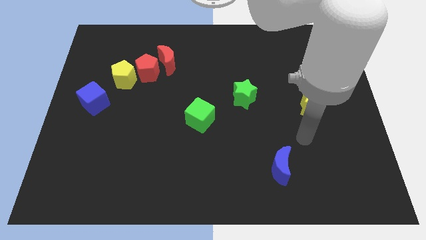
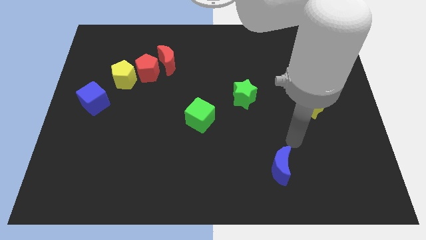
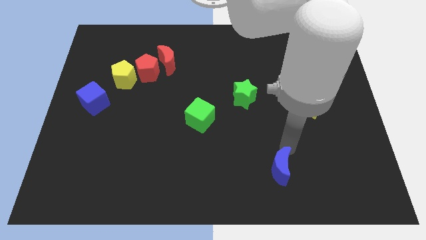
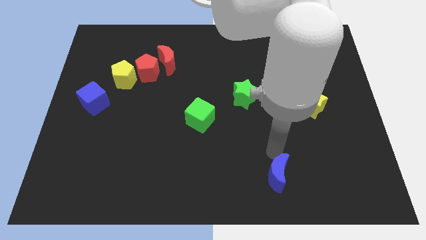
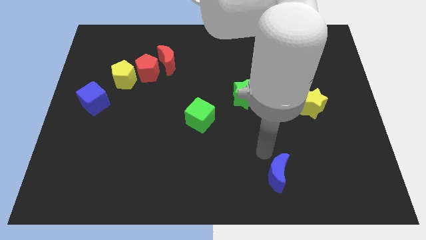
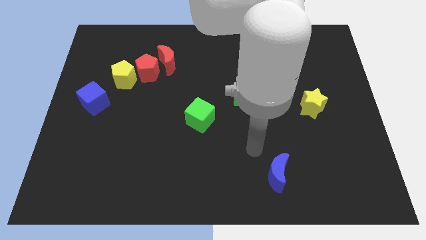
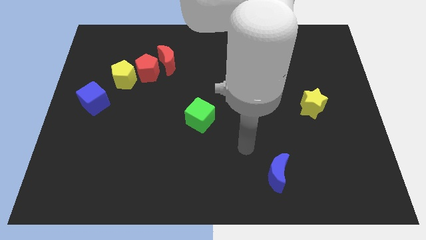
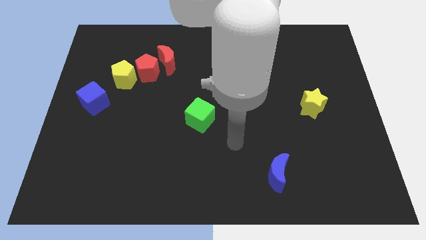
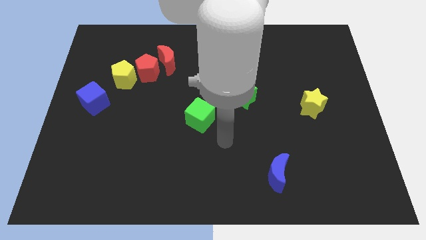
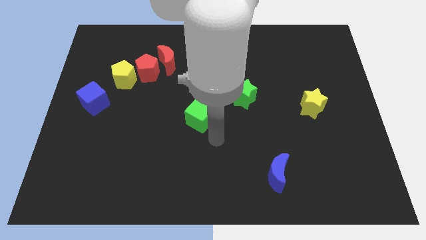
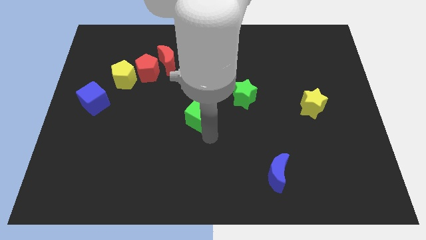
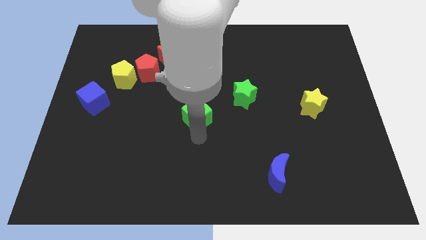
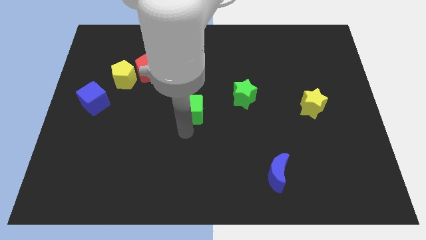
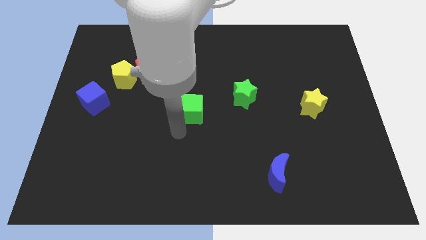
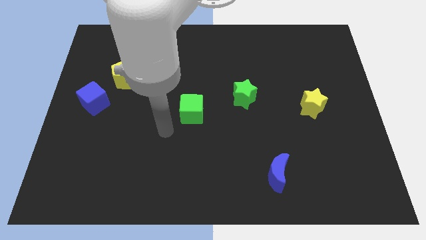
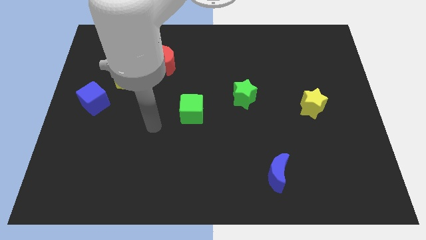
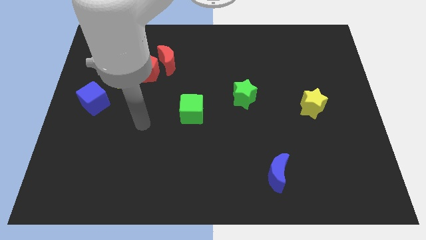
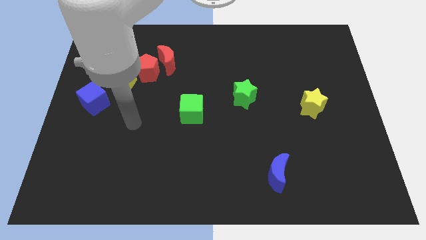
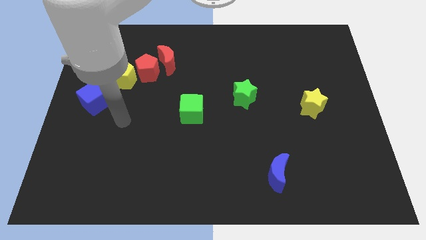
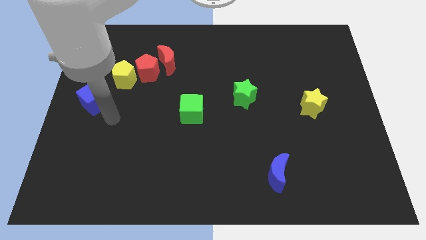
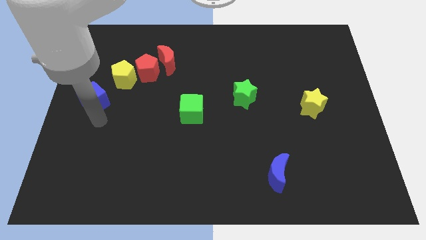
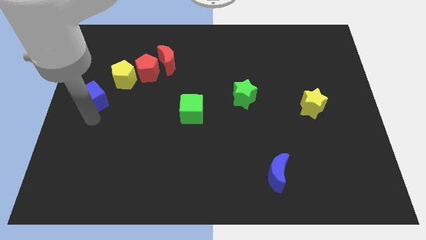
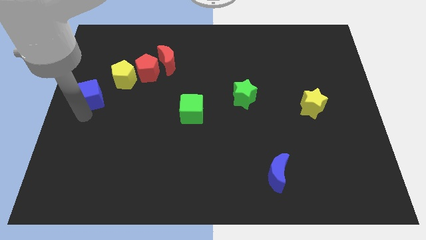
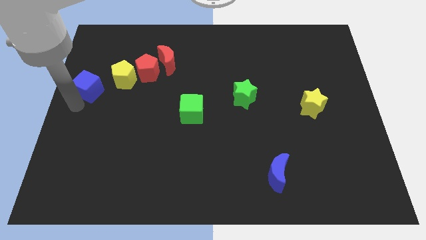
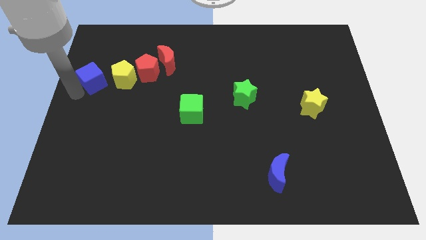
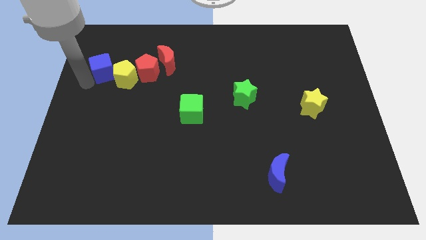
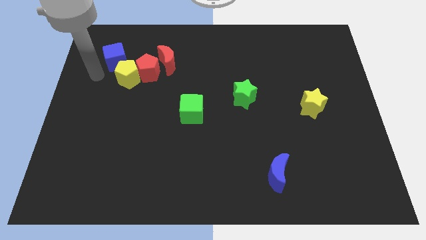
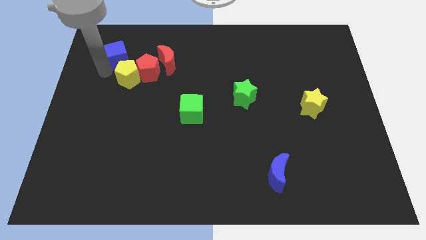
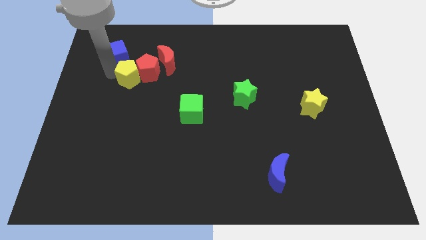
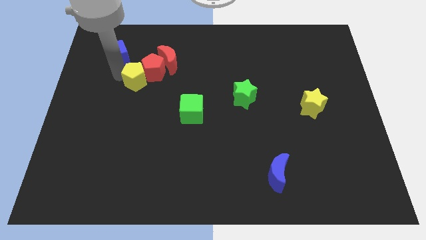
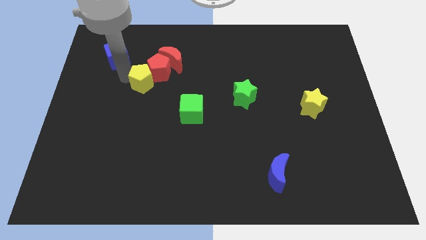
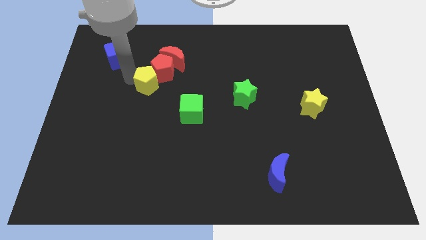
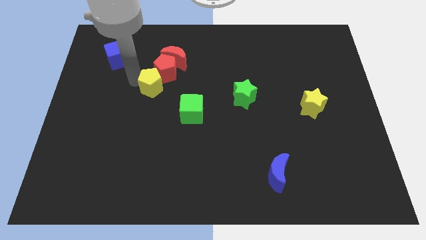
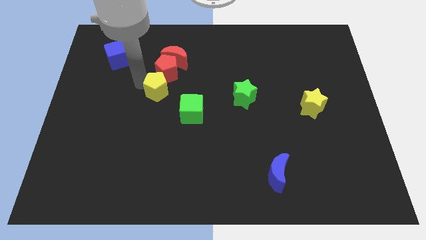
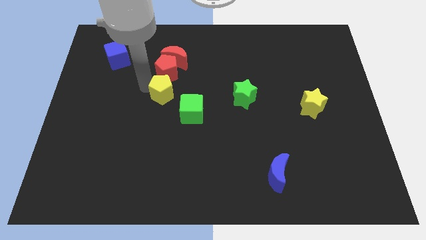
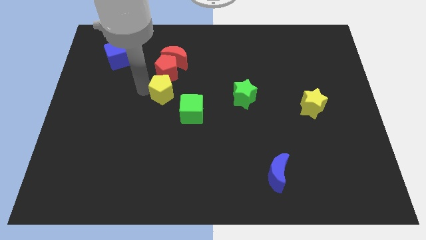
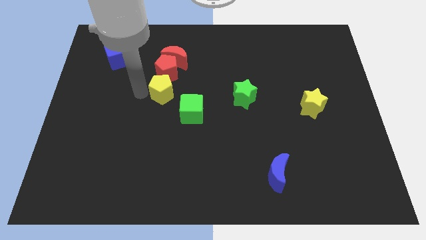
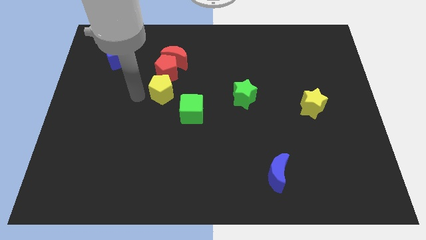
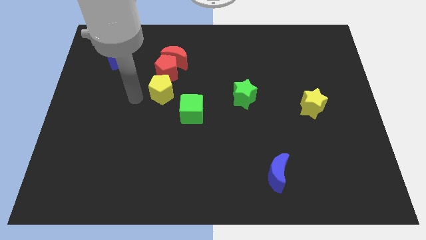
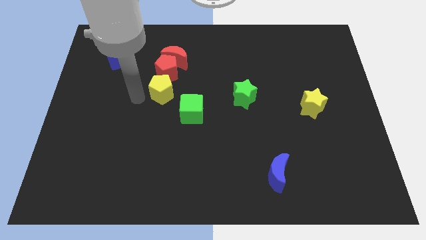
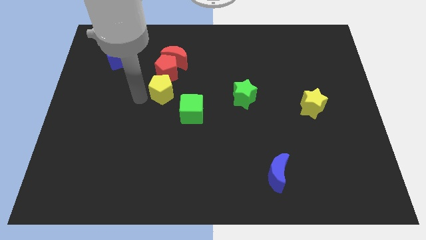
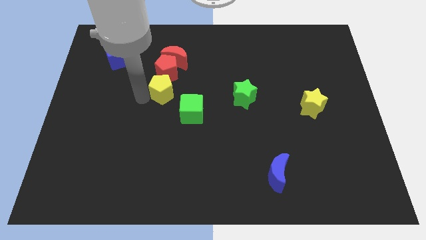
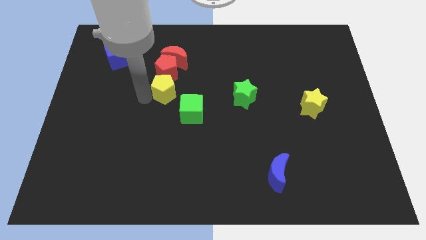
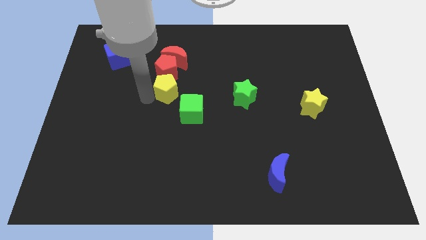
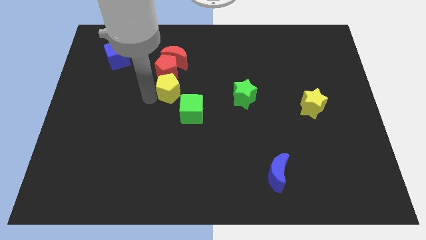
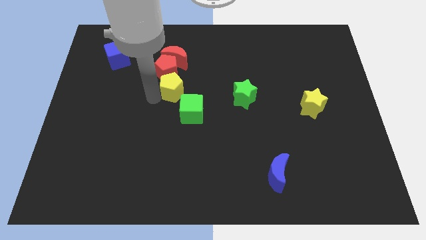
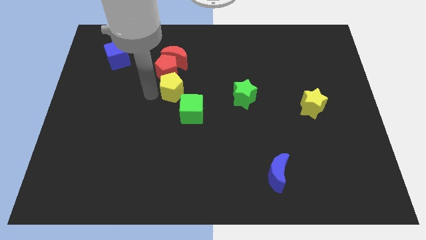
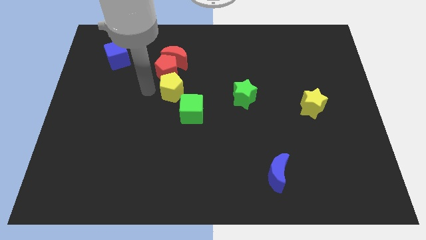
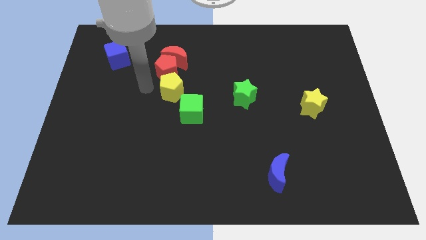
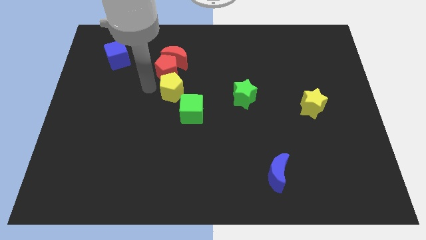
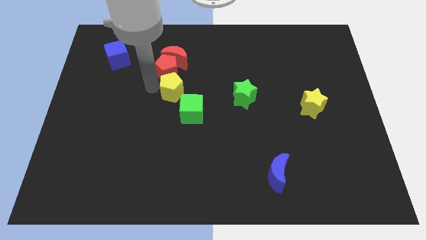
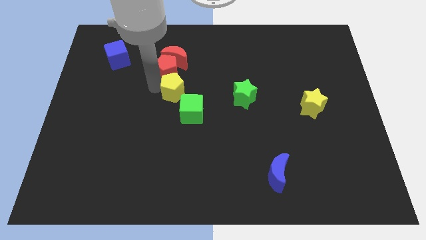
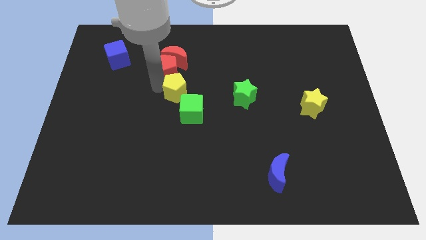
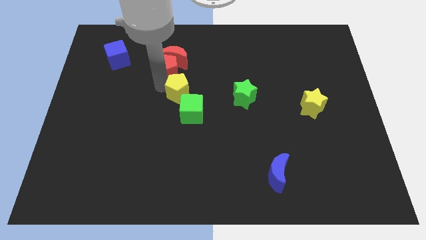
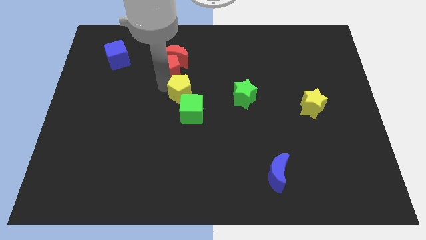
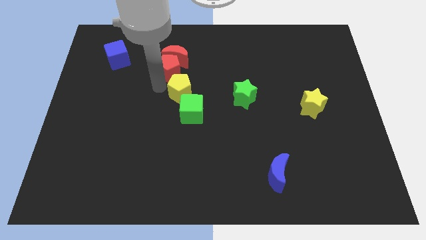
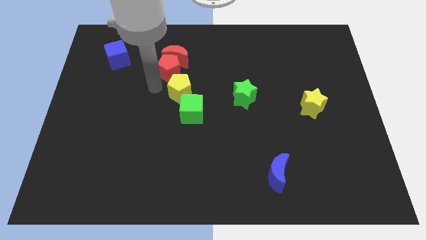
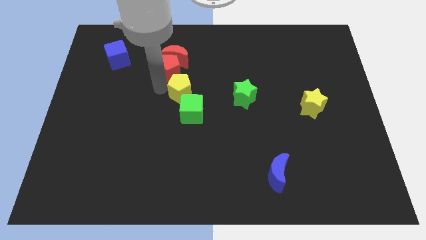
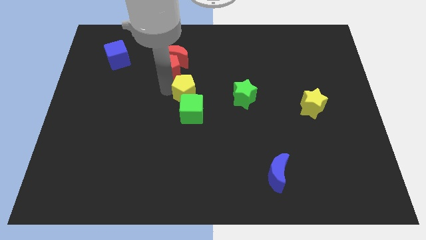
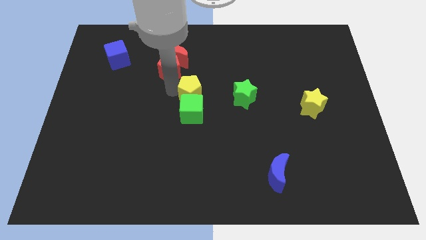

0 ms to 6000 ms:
move the yellow pentagon to the top right side of the green cube
